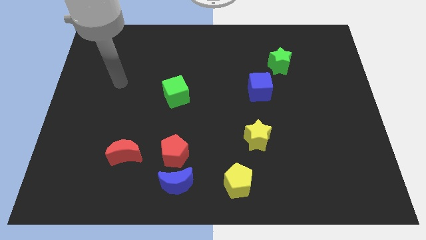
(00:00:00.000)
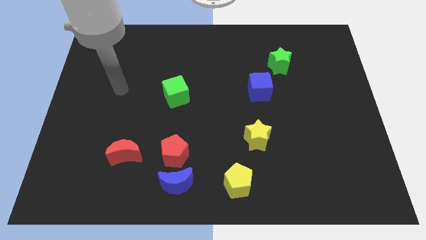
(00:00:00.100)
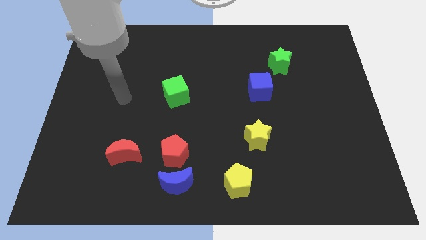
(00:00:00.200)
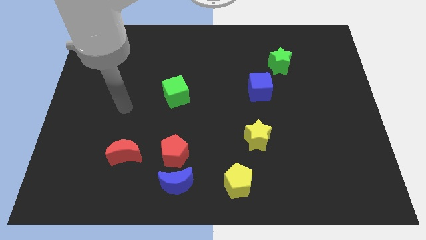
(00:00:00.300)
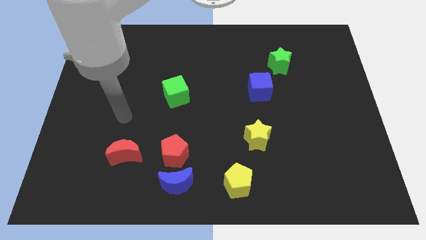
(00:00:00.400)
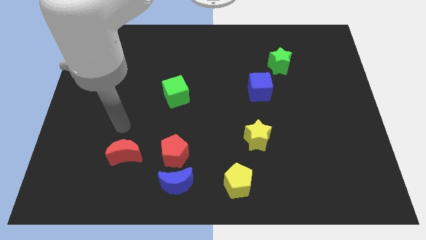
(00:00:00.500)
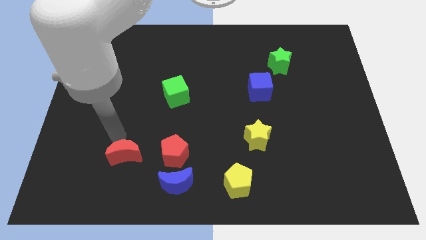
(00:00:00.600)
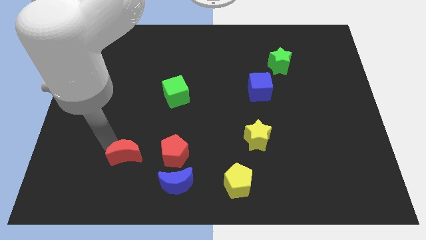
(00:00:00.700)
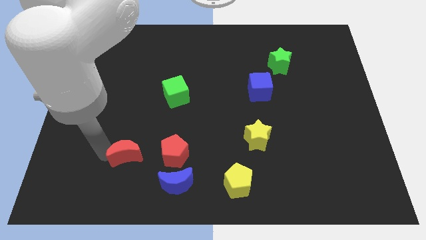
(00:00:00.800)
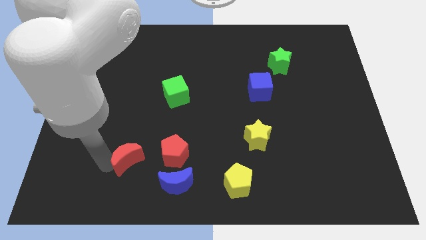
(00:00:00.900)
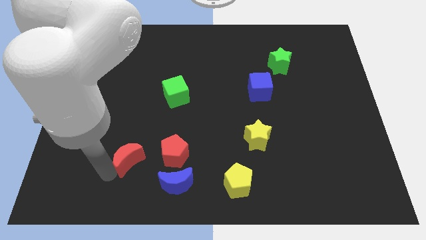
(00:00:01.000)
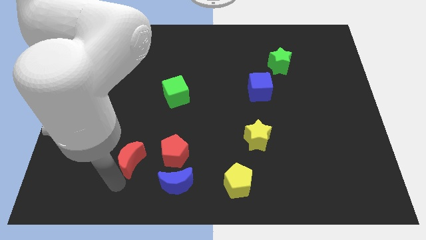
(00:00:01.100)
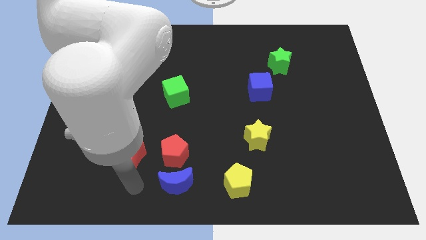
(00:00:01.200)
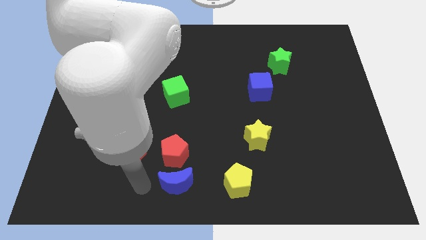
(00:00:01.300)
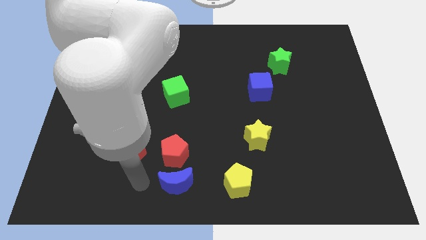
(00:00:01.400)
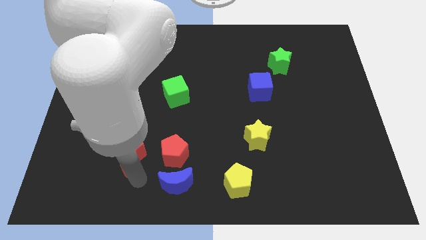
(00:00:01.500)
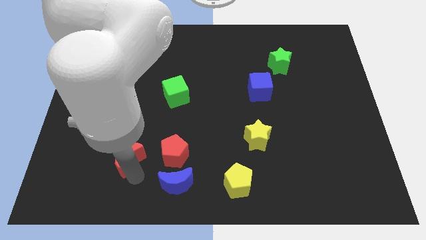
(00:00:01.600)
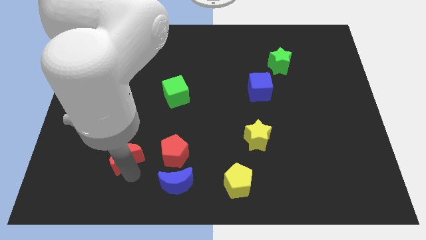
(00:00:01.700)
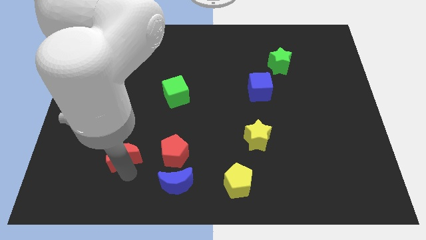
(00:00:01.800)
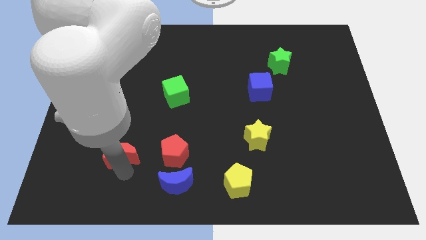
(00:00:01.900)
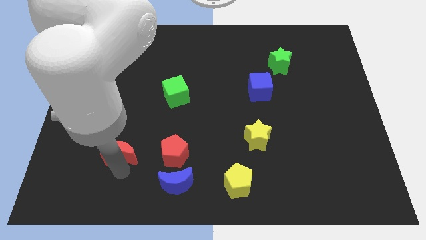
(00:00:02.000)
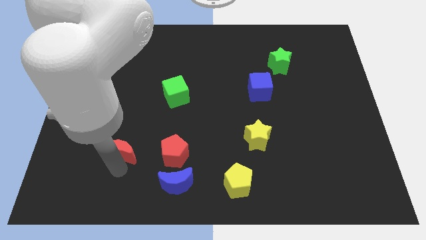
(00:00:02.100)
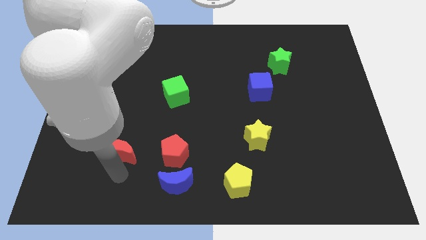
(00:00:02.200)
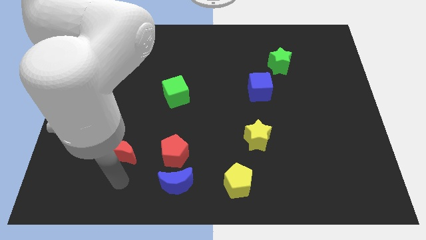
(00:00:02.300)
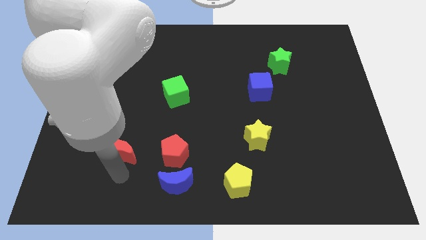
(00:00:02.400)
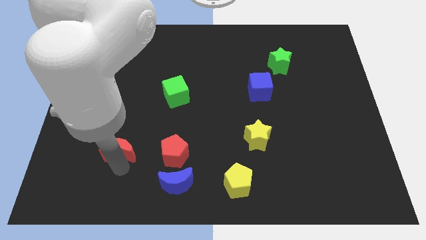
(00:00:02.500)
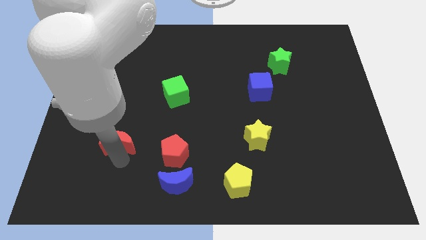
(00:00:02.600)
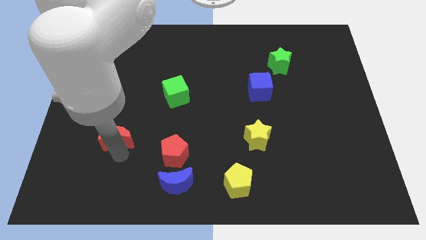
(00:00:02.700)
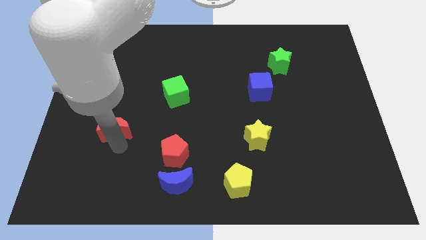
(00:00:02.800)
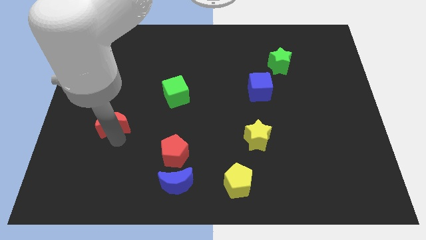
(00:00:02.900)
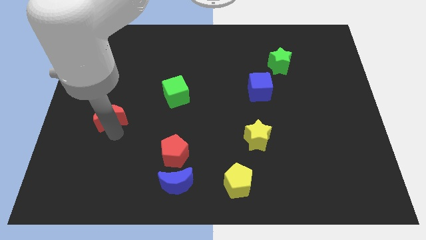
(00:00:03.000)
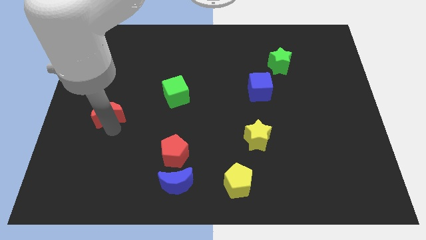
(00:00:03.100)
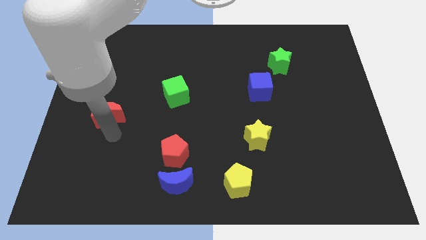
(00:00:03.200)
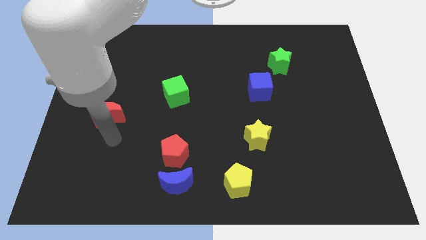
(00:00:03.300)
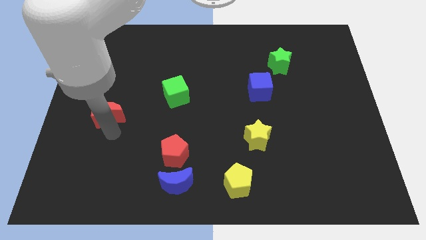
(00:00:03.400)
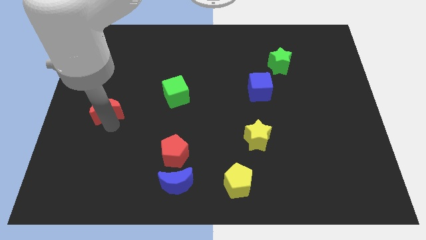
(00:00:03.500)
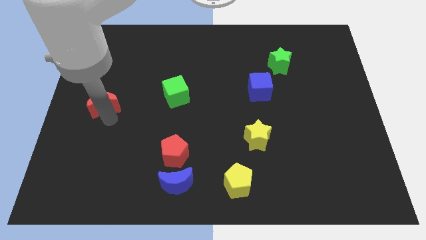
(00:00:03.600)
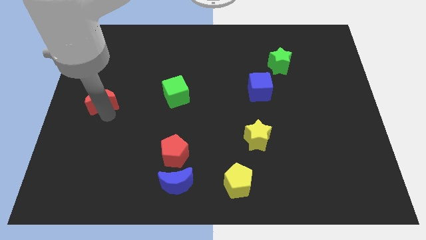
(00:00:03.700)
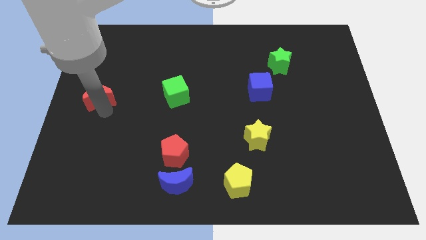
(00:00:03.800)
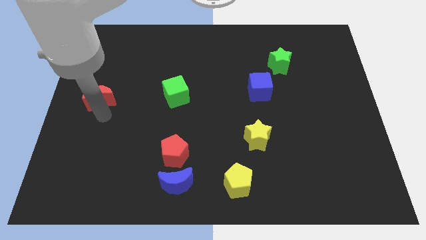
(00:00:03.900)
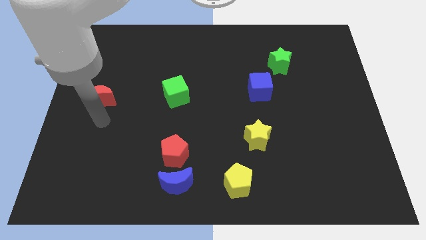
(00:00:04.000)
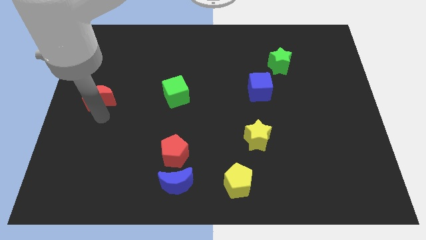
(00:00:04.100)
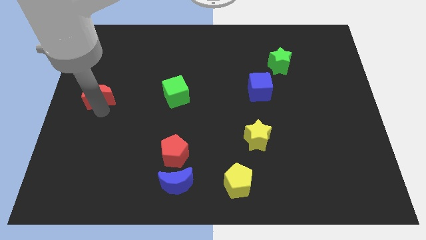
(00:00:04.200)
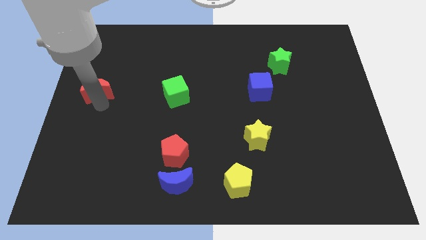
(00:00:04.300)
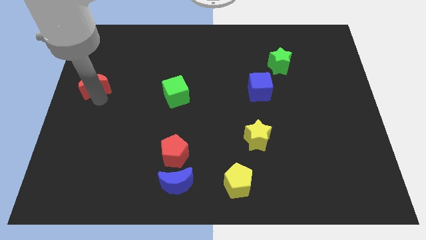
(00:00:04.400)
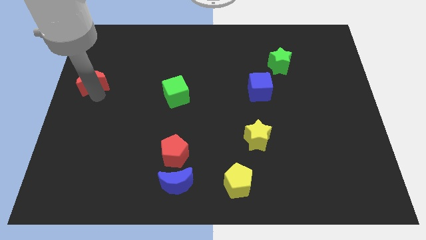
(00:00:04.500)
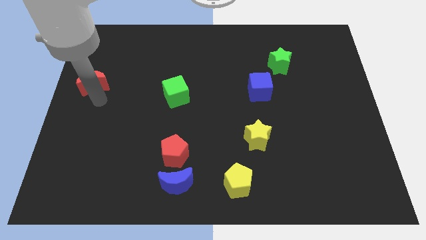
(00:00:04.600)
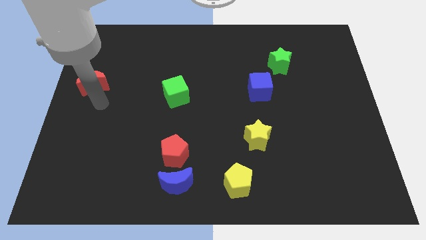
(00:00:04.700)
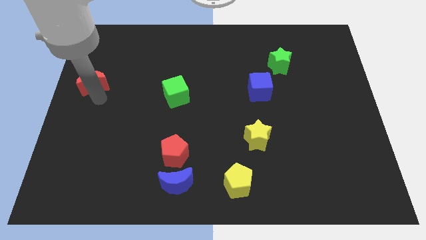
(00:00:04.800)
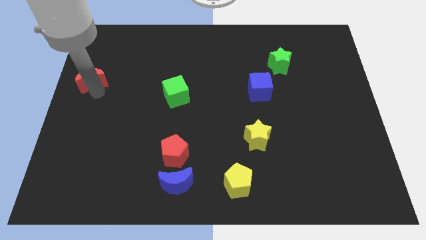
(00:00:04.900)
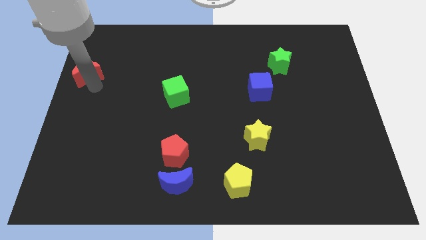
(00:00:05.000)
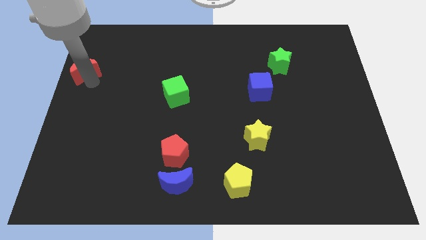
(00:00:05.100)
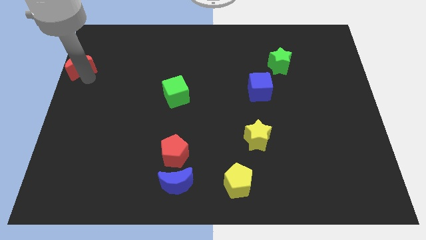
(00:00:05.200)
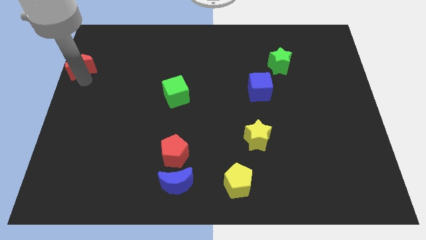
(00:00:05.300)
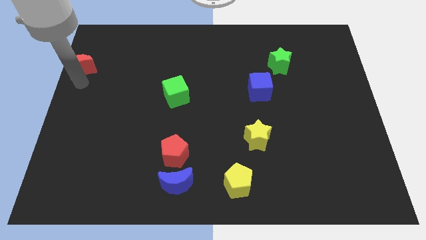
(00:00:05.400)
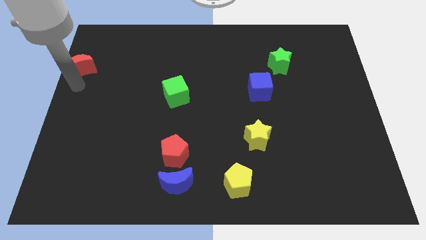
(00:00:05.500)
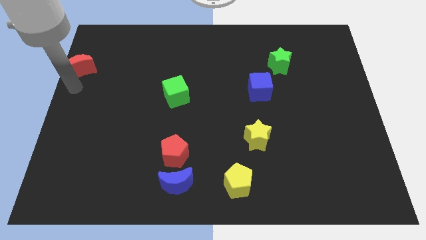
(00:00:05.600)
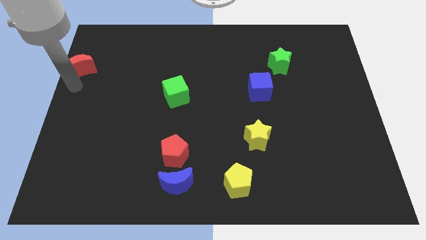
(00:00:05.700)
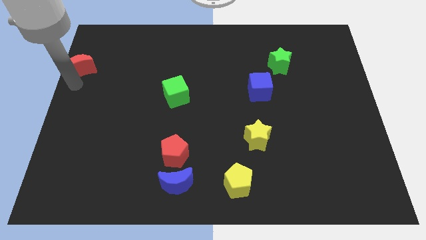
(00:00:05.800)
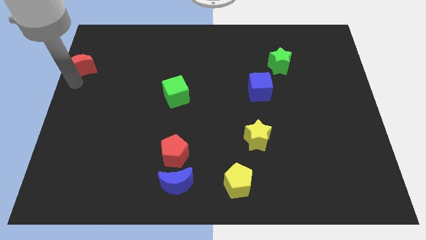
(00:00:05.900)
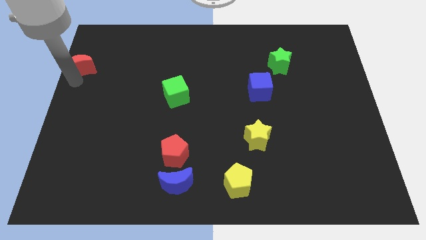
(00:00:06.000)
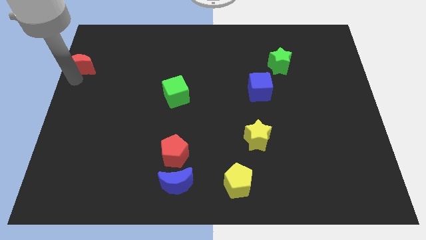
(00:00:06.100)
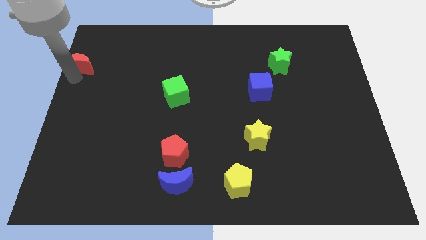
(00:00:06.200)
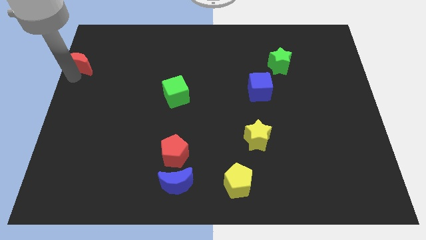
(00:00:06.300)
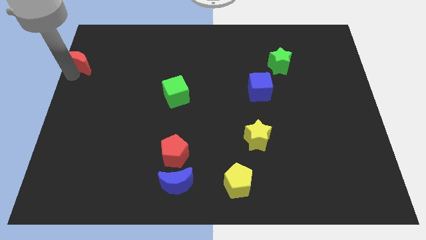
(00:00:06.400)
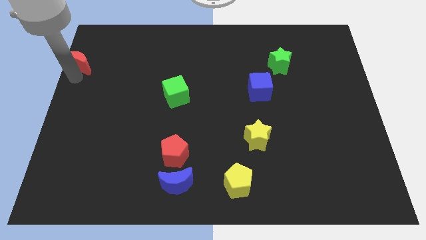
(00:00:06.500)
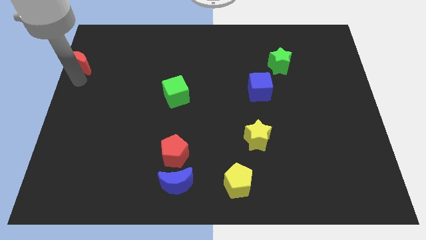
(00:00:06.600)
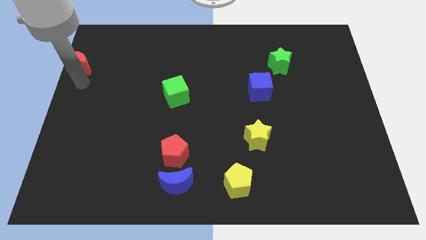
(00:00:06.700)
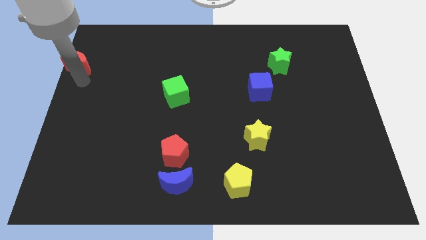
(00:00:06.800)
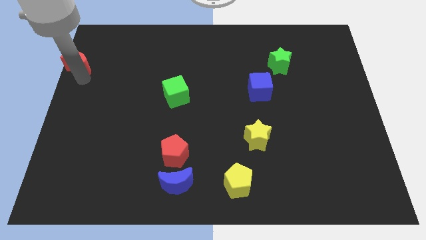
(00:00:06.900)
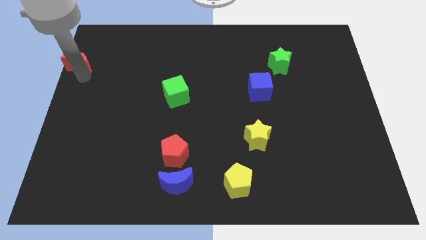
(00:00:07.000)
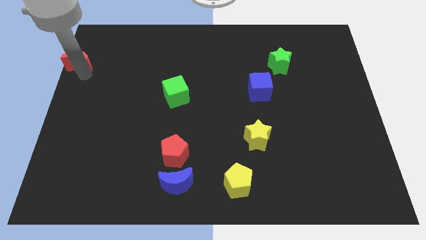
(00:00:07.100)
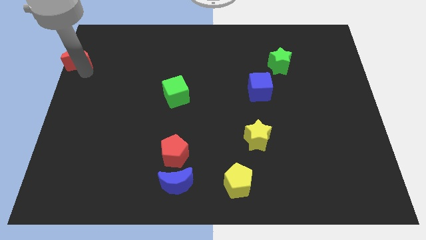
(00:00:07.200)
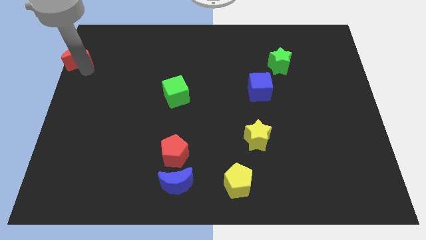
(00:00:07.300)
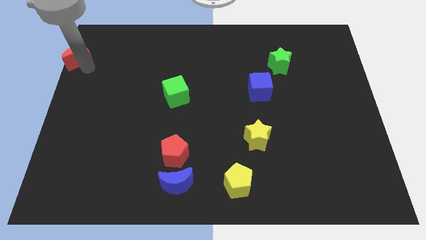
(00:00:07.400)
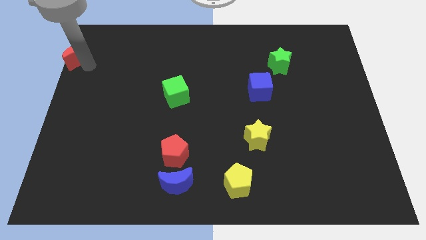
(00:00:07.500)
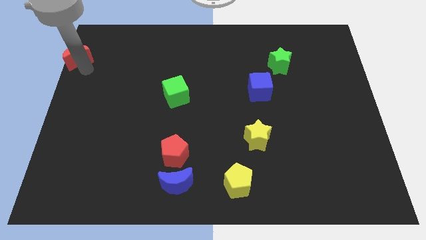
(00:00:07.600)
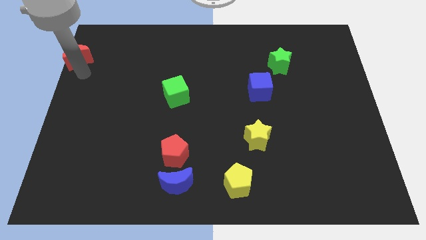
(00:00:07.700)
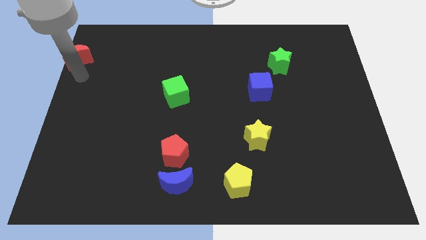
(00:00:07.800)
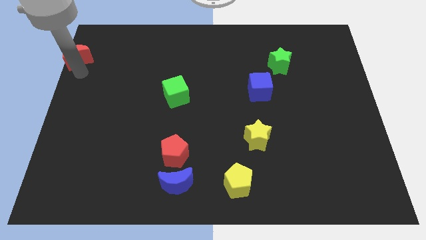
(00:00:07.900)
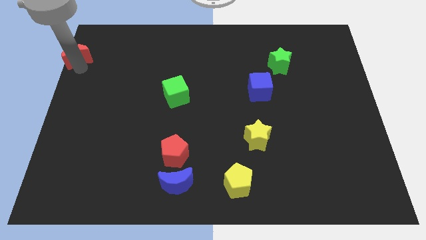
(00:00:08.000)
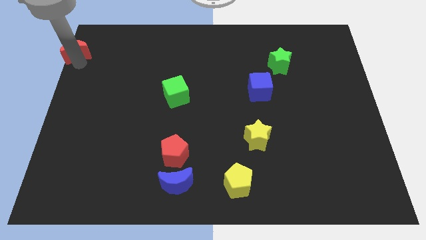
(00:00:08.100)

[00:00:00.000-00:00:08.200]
put the red moon to the top left
